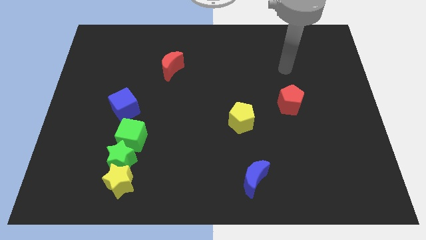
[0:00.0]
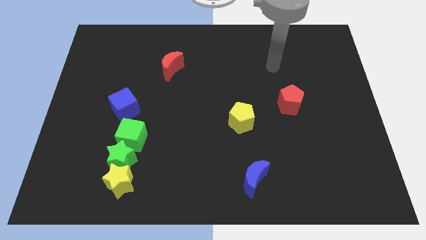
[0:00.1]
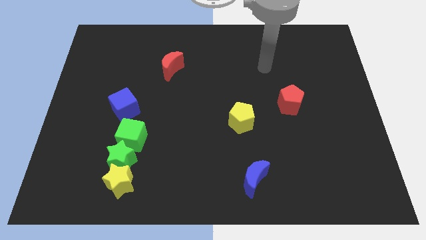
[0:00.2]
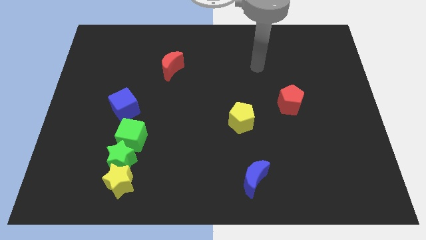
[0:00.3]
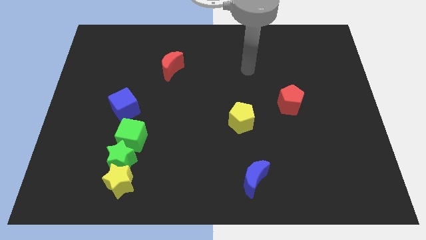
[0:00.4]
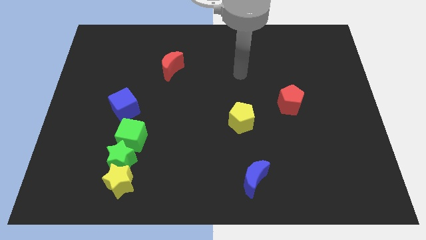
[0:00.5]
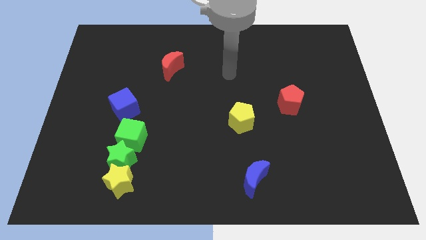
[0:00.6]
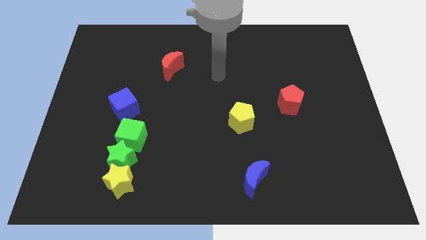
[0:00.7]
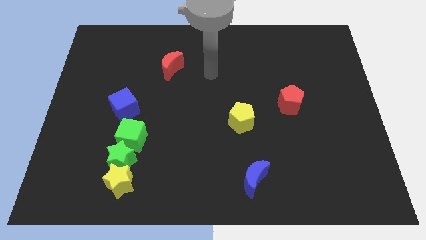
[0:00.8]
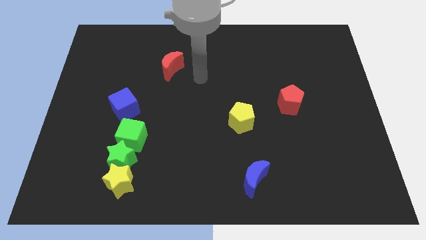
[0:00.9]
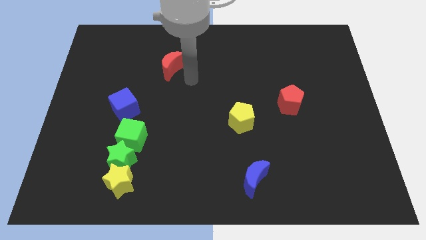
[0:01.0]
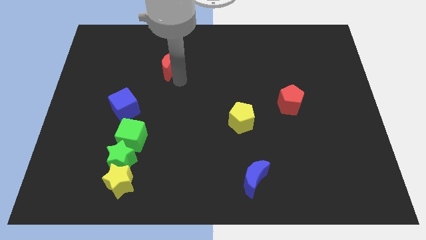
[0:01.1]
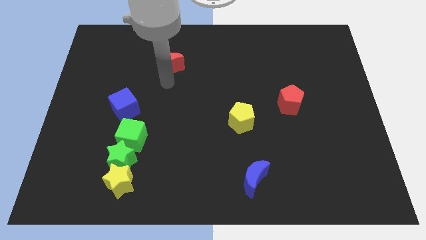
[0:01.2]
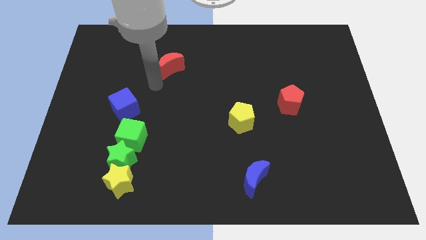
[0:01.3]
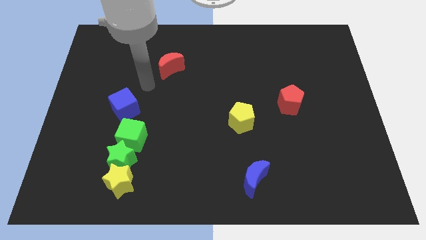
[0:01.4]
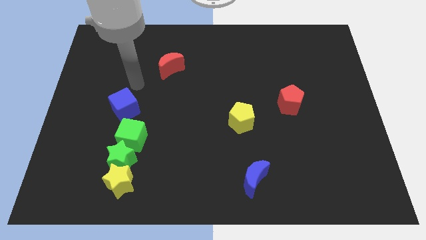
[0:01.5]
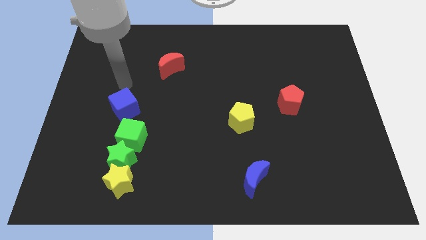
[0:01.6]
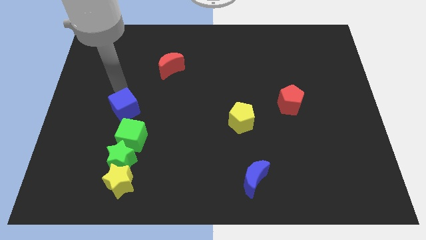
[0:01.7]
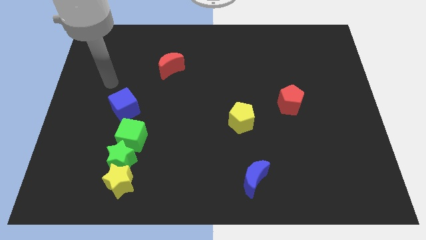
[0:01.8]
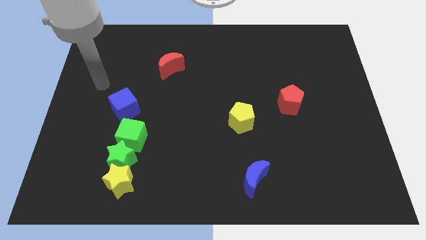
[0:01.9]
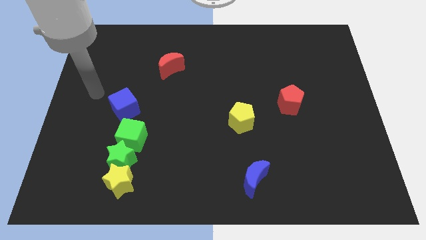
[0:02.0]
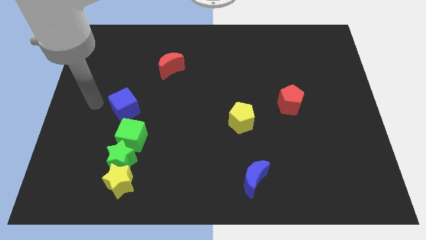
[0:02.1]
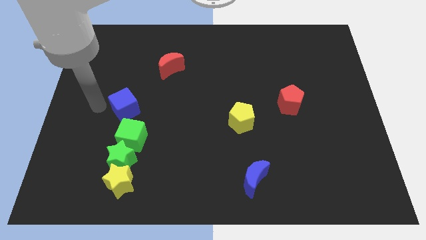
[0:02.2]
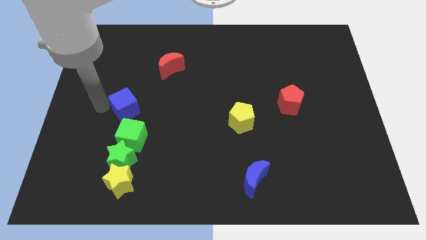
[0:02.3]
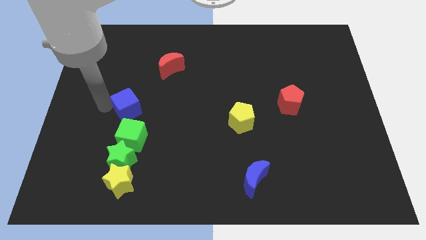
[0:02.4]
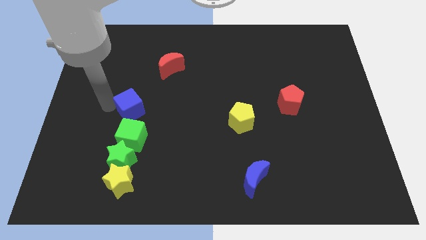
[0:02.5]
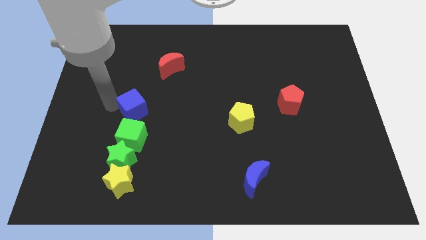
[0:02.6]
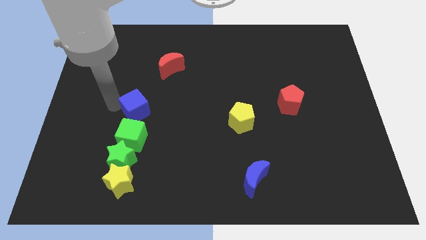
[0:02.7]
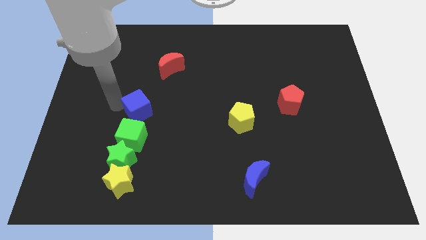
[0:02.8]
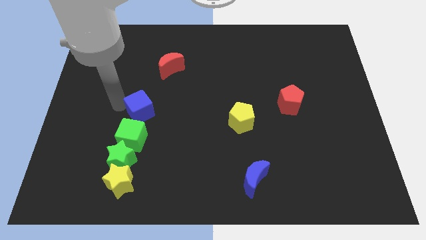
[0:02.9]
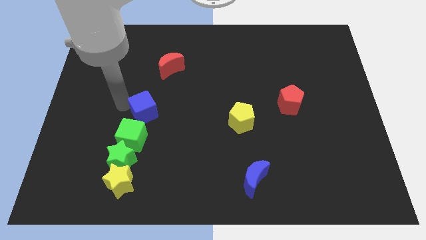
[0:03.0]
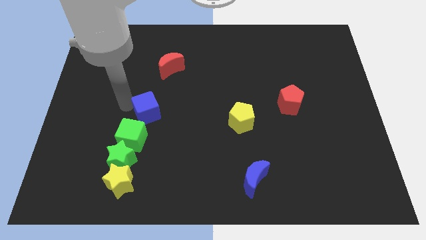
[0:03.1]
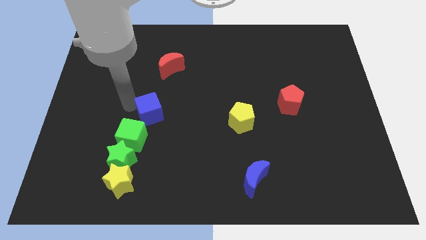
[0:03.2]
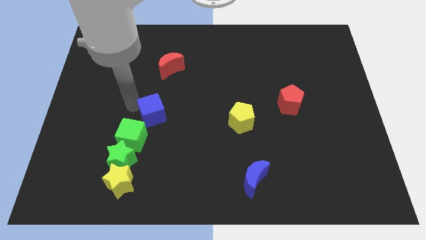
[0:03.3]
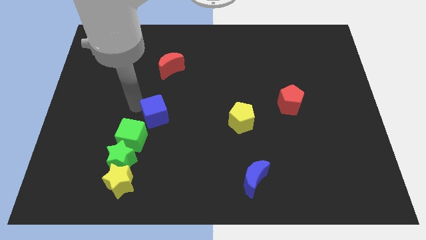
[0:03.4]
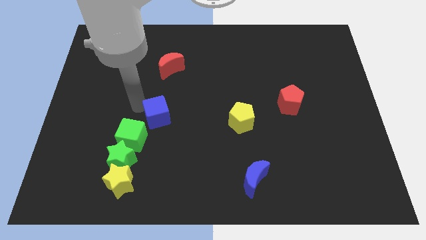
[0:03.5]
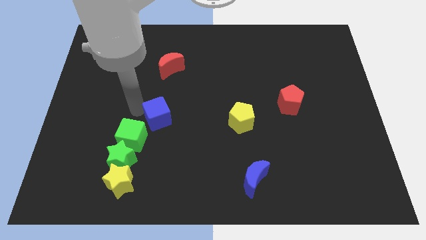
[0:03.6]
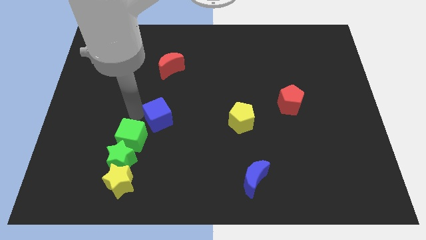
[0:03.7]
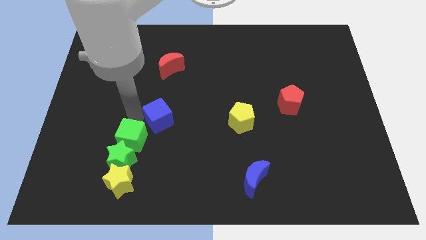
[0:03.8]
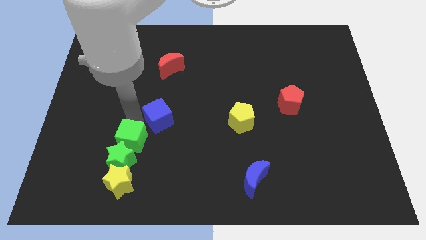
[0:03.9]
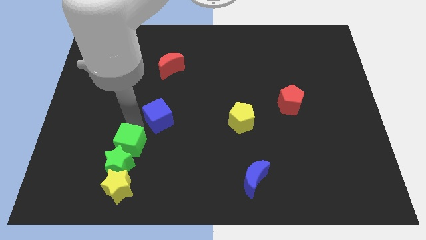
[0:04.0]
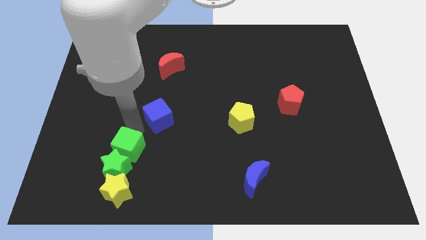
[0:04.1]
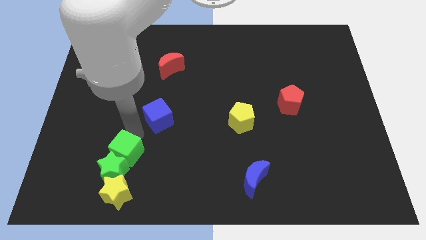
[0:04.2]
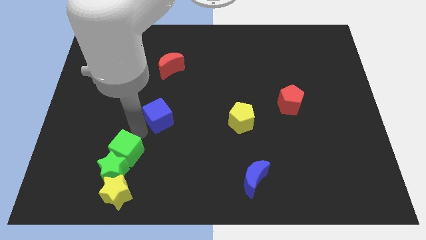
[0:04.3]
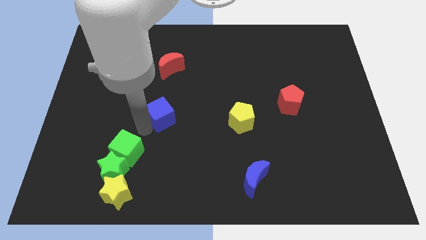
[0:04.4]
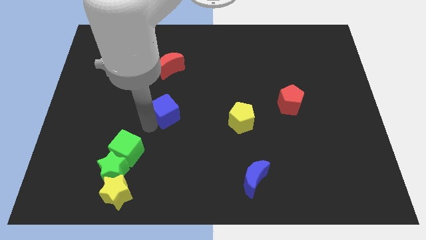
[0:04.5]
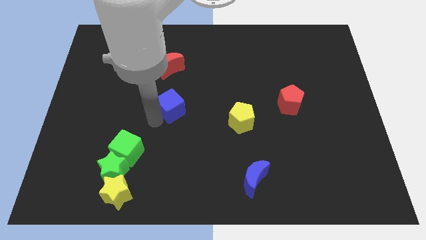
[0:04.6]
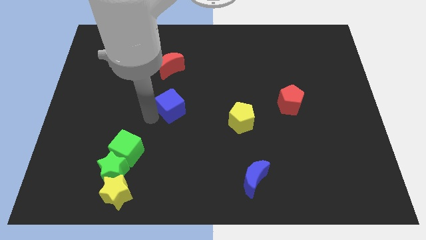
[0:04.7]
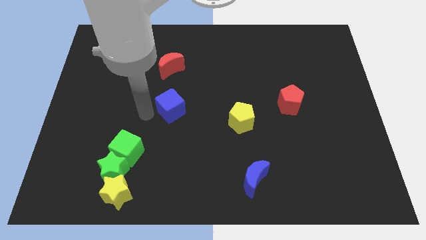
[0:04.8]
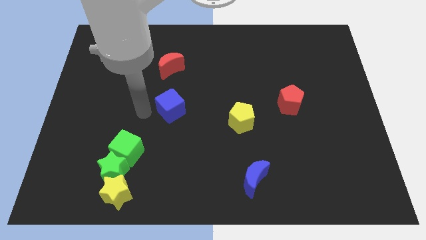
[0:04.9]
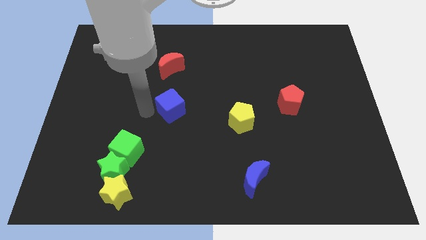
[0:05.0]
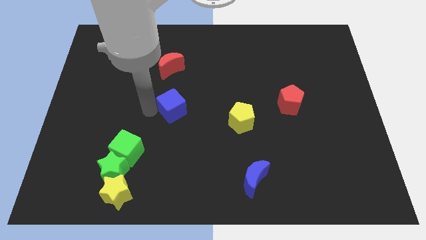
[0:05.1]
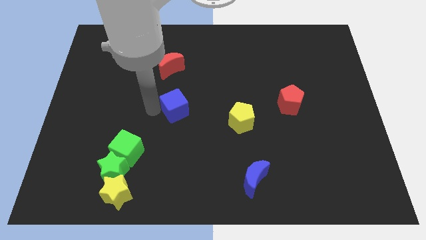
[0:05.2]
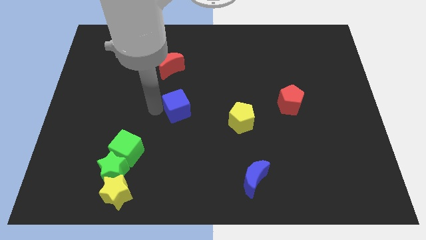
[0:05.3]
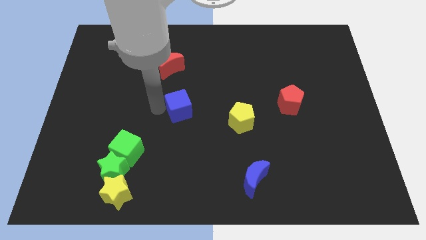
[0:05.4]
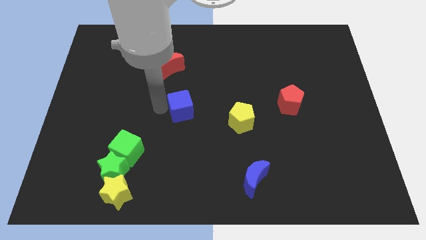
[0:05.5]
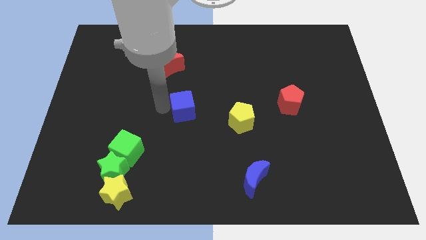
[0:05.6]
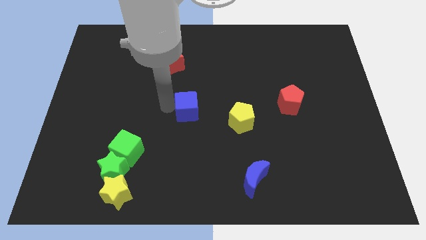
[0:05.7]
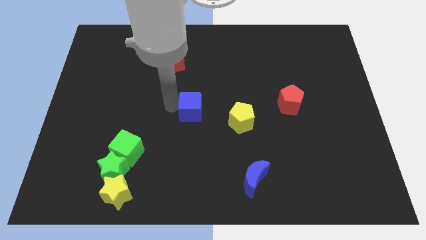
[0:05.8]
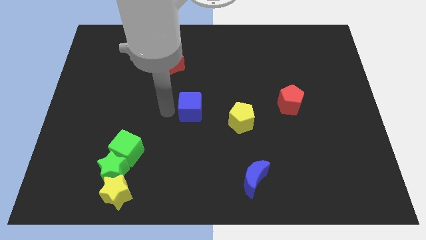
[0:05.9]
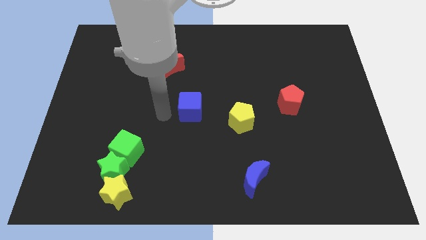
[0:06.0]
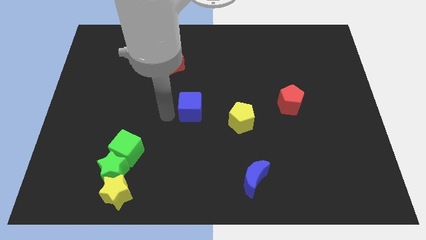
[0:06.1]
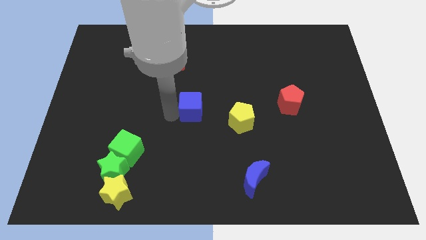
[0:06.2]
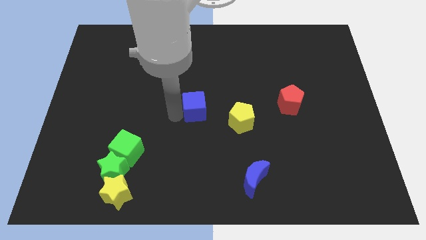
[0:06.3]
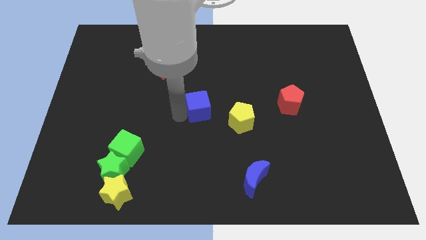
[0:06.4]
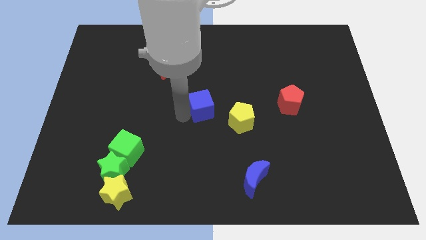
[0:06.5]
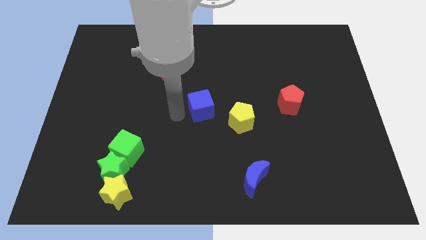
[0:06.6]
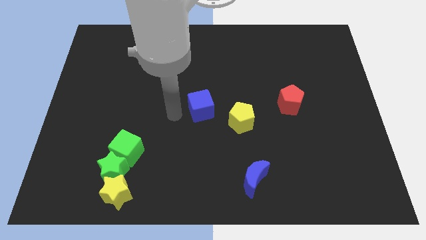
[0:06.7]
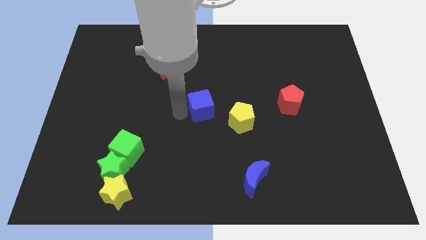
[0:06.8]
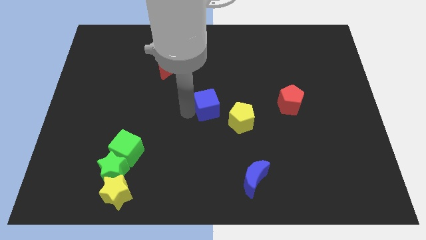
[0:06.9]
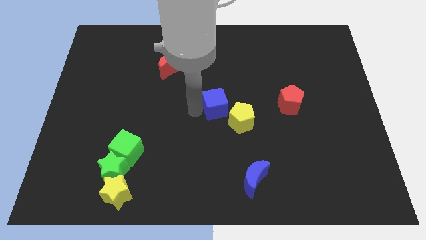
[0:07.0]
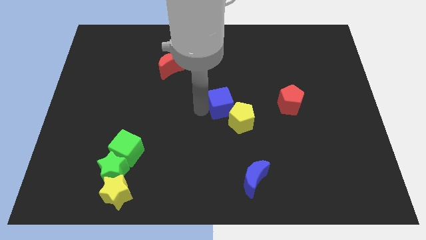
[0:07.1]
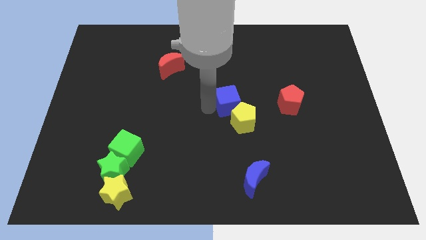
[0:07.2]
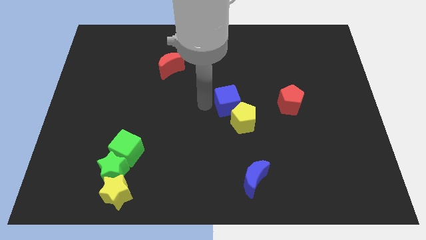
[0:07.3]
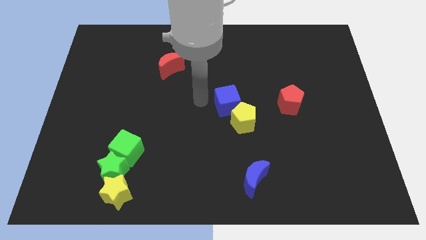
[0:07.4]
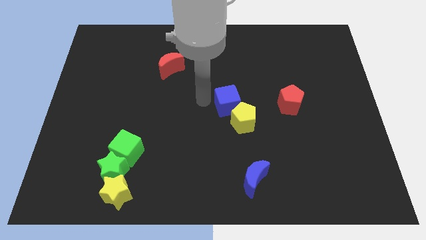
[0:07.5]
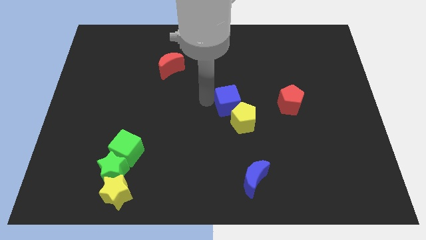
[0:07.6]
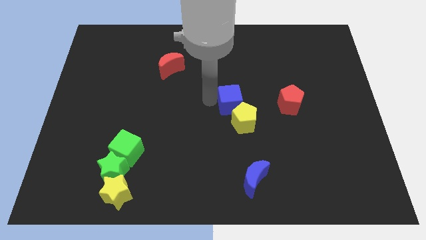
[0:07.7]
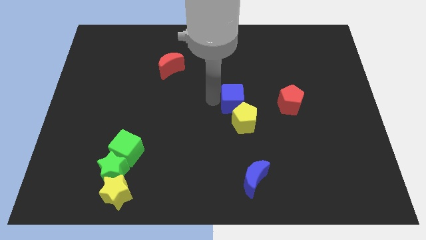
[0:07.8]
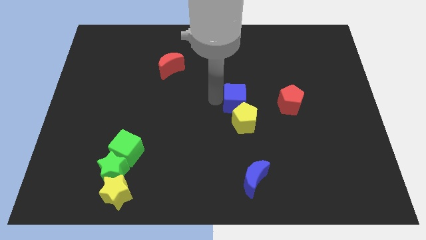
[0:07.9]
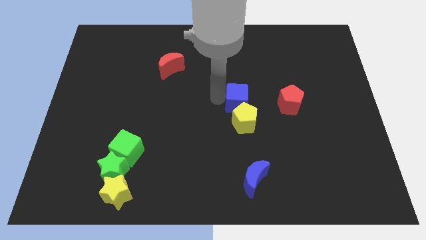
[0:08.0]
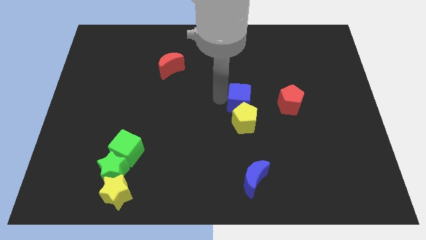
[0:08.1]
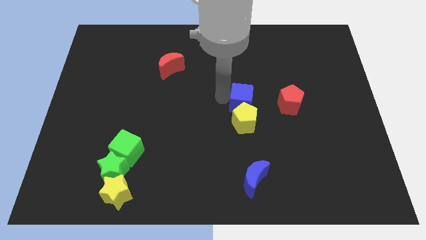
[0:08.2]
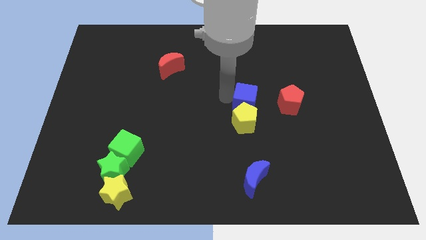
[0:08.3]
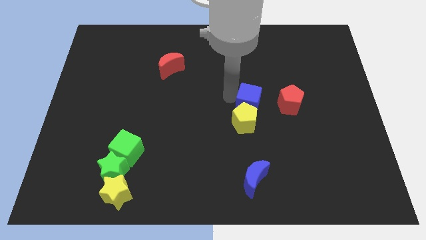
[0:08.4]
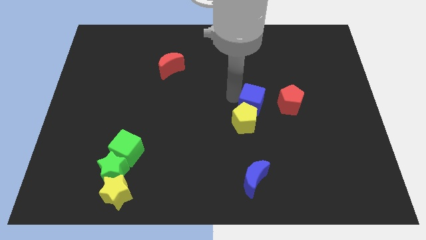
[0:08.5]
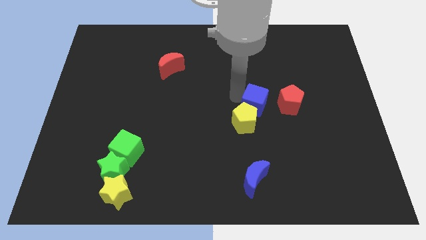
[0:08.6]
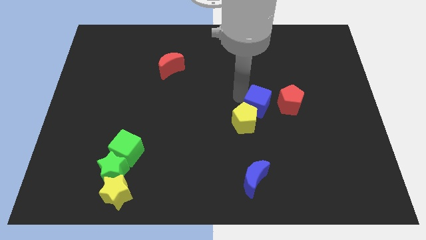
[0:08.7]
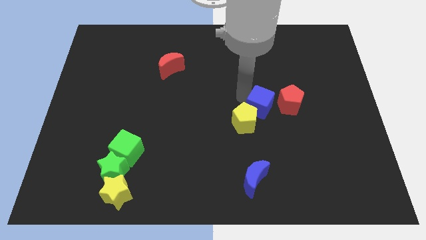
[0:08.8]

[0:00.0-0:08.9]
push the blue cube to the bottom left of the red pentagon
